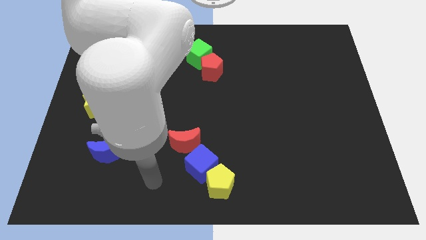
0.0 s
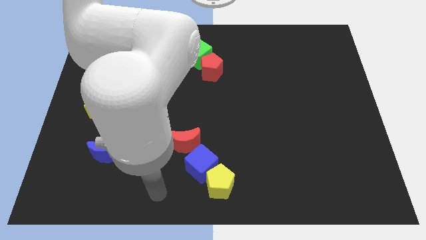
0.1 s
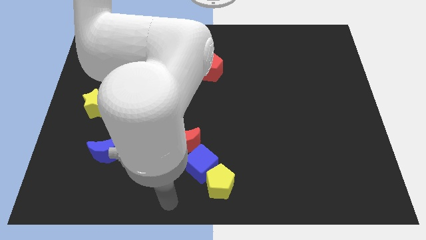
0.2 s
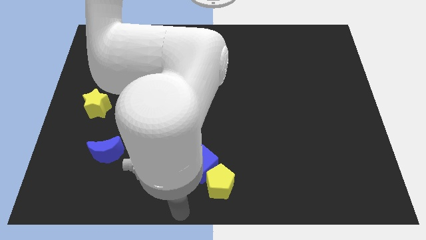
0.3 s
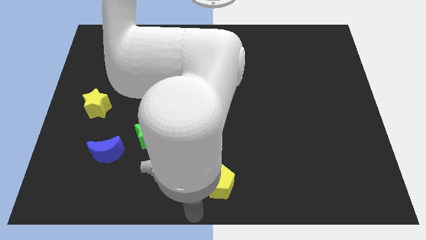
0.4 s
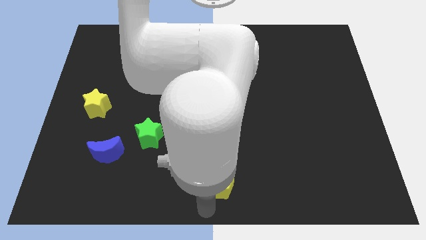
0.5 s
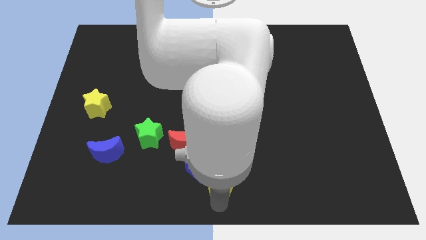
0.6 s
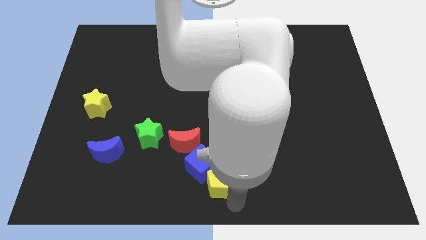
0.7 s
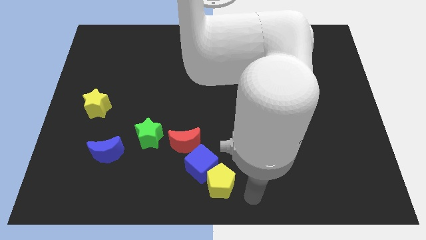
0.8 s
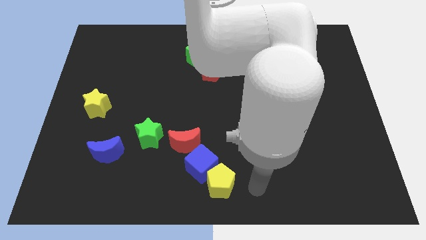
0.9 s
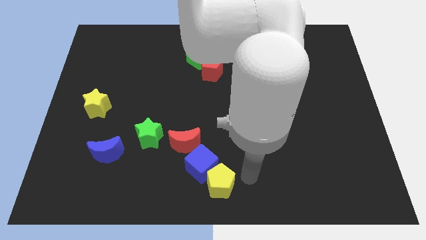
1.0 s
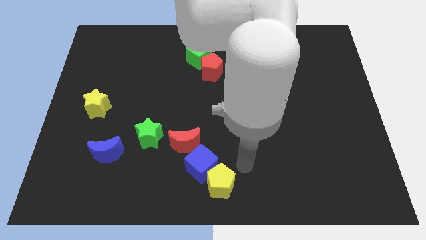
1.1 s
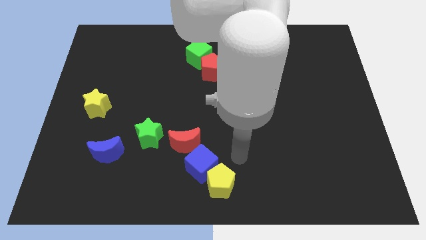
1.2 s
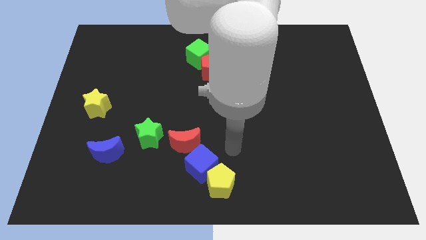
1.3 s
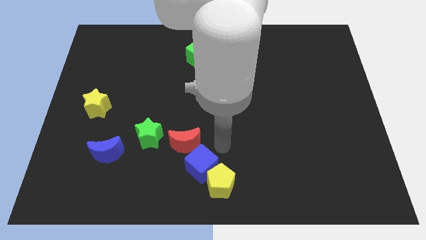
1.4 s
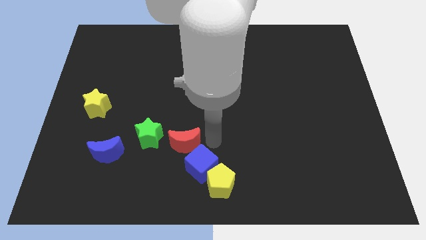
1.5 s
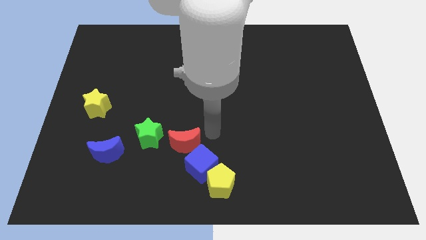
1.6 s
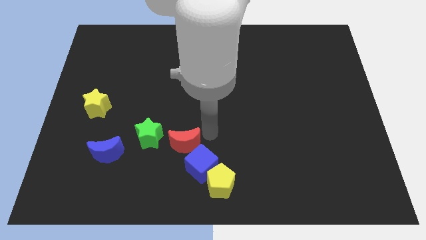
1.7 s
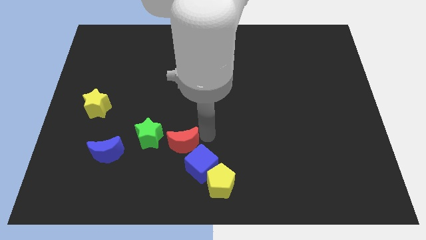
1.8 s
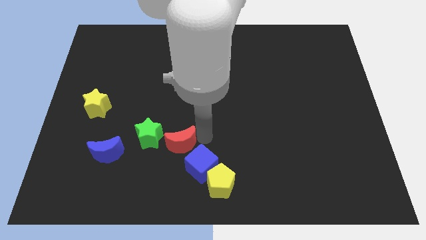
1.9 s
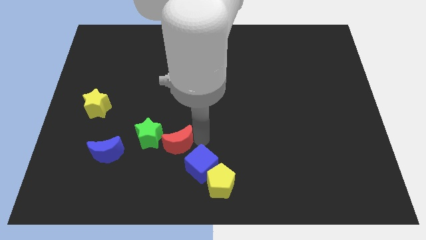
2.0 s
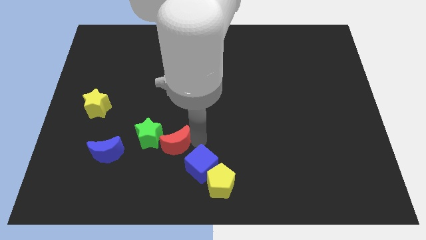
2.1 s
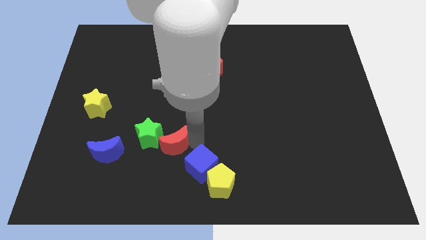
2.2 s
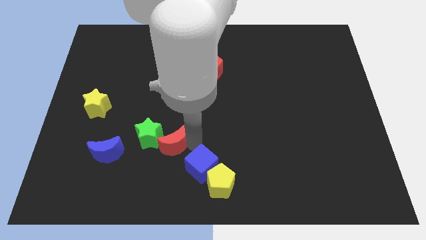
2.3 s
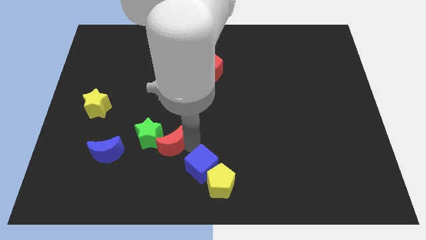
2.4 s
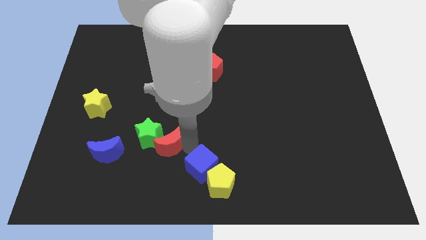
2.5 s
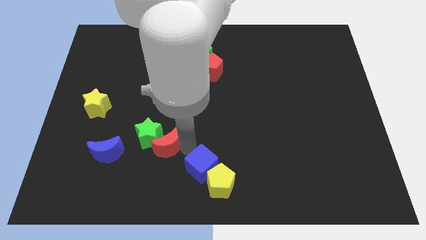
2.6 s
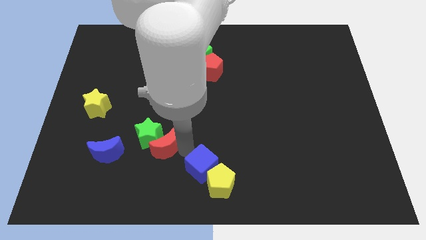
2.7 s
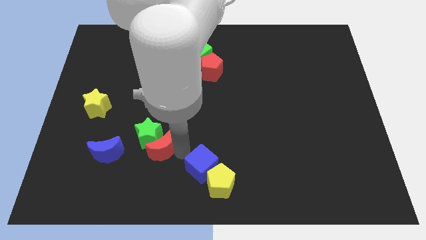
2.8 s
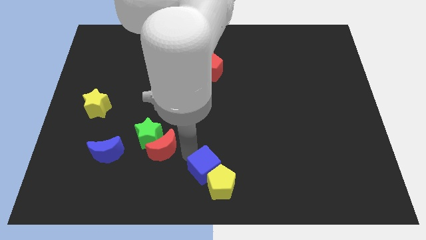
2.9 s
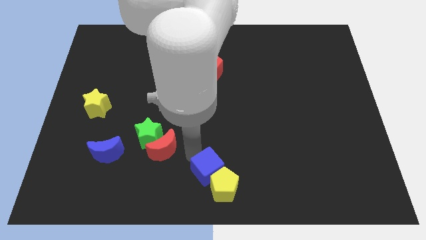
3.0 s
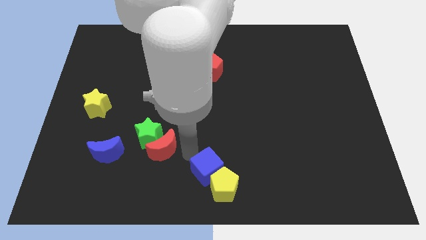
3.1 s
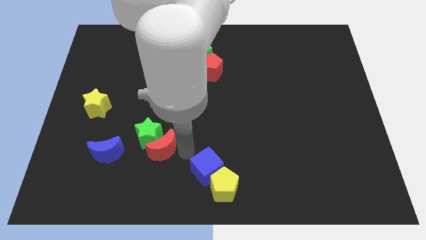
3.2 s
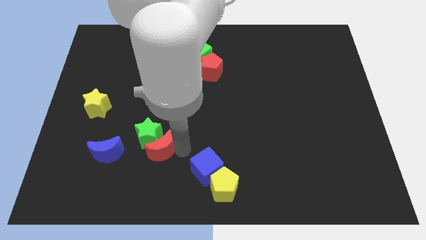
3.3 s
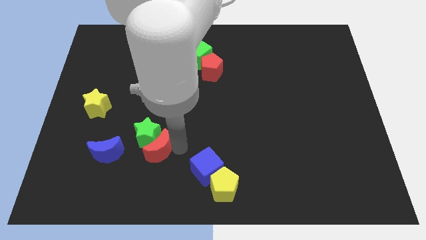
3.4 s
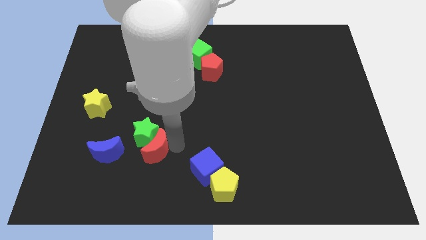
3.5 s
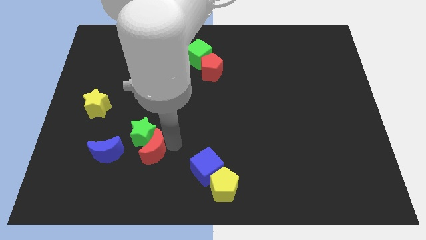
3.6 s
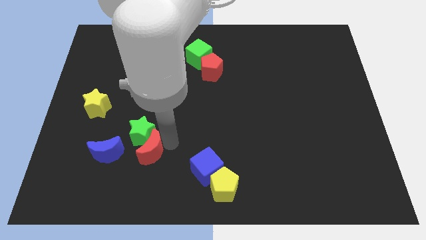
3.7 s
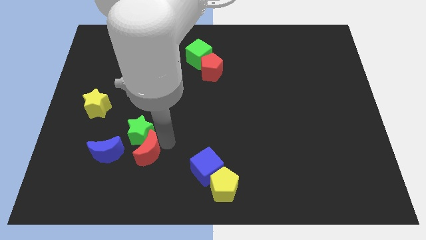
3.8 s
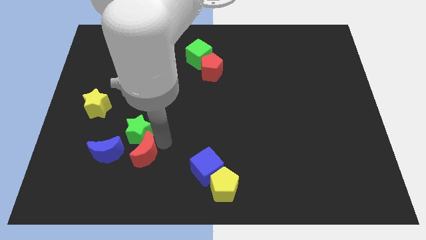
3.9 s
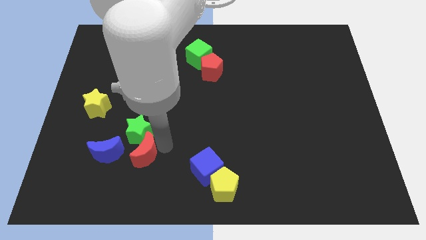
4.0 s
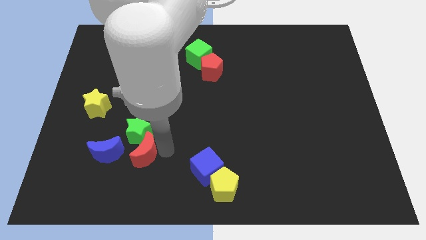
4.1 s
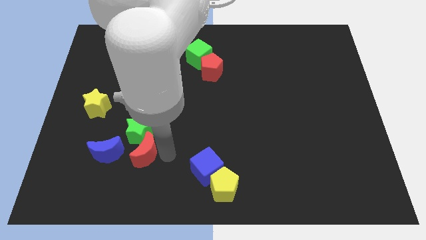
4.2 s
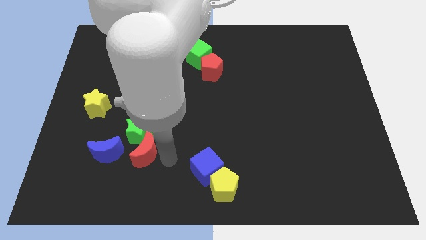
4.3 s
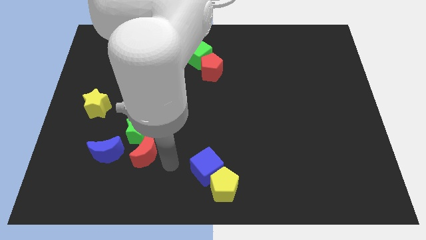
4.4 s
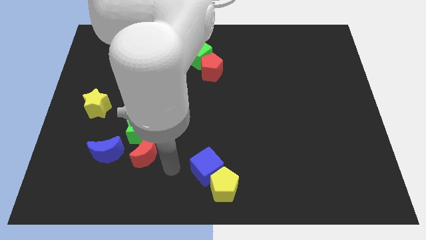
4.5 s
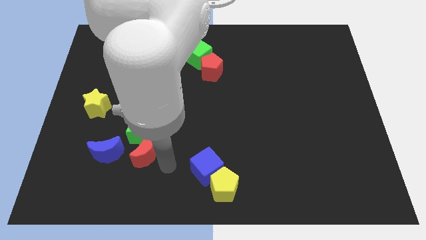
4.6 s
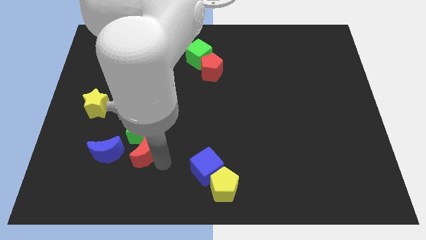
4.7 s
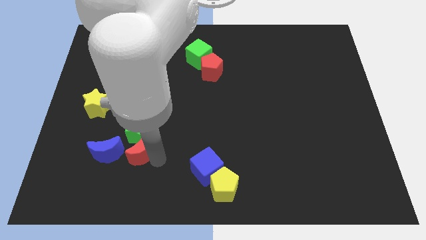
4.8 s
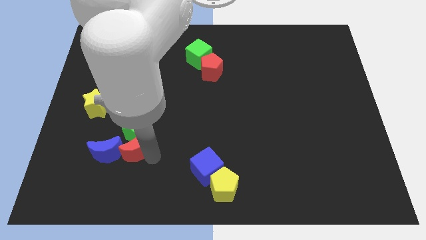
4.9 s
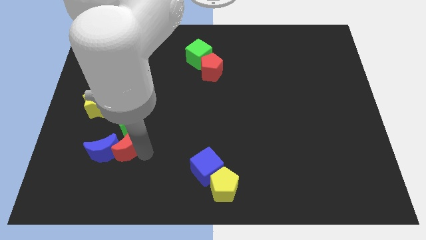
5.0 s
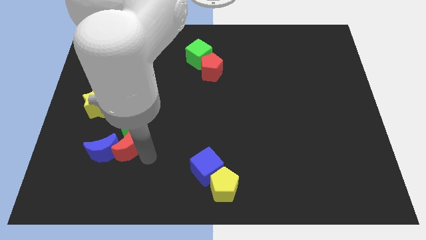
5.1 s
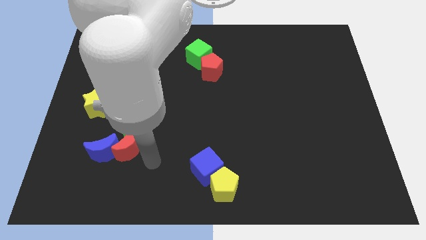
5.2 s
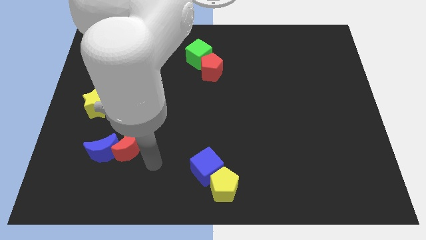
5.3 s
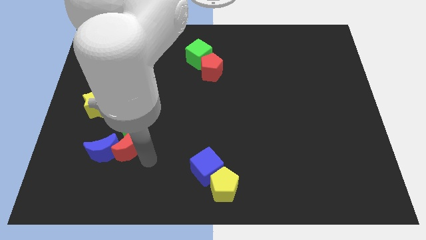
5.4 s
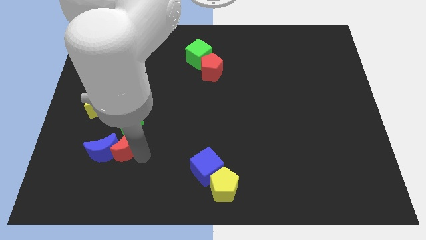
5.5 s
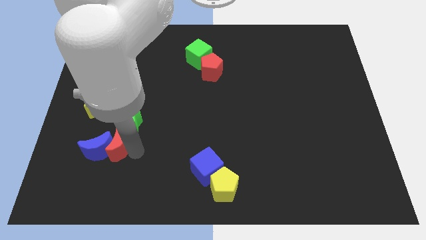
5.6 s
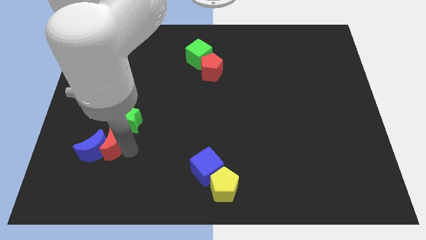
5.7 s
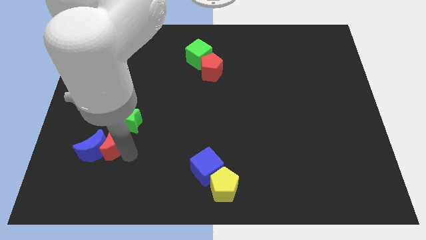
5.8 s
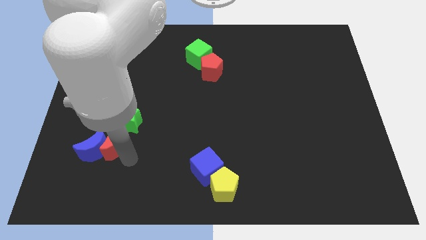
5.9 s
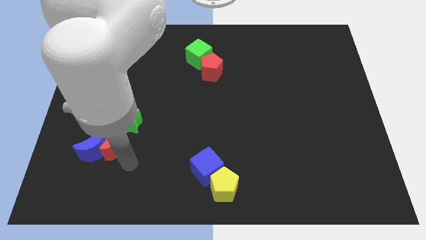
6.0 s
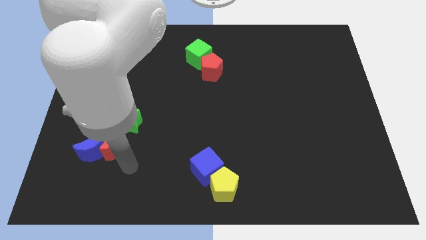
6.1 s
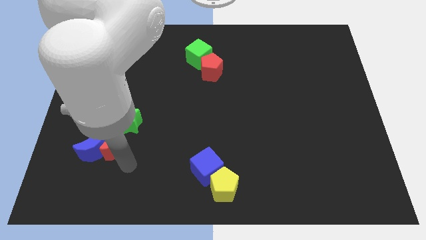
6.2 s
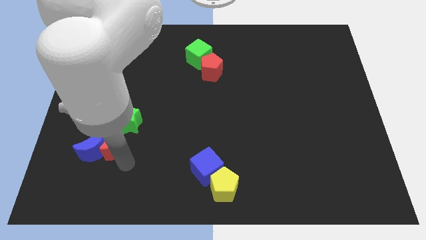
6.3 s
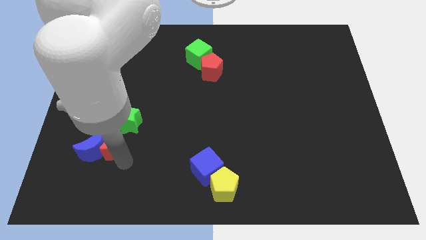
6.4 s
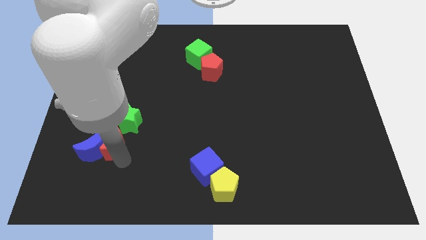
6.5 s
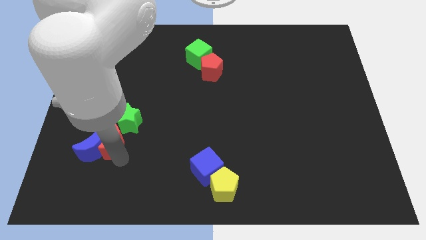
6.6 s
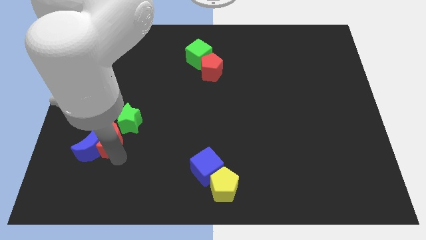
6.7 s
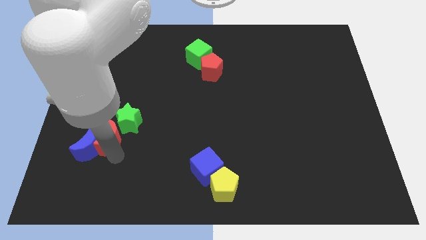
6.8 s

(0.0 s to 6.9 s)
push the red moon to the bottom of the yellow star

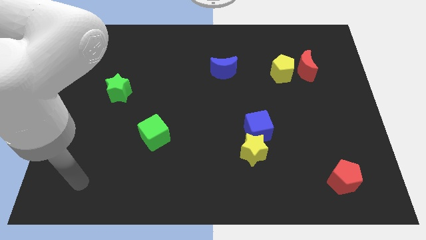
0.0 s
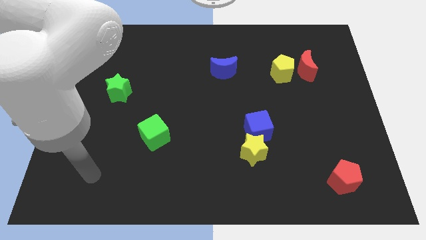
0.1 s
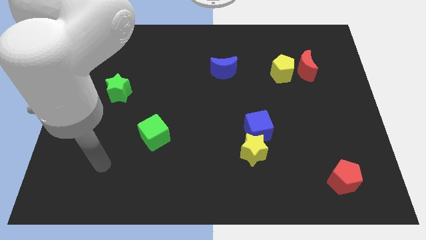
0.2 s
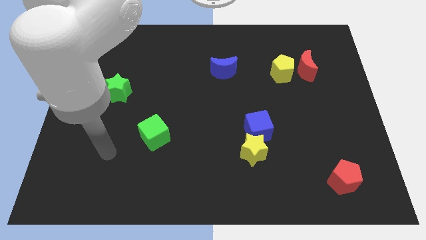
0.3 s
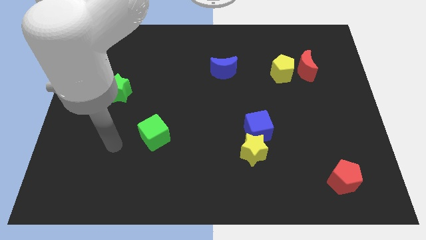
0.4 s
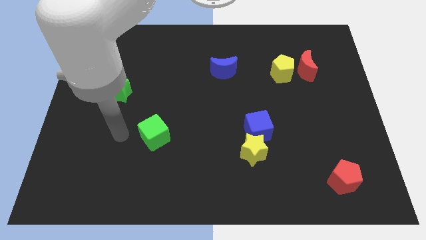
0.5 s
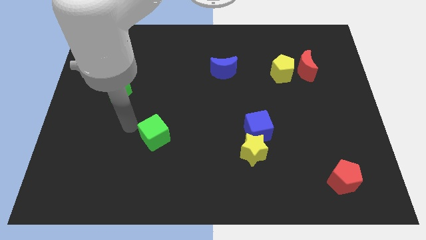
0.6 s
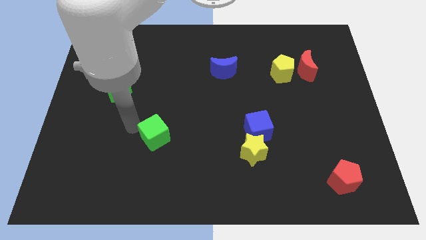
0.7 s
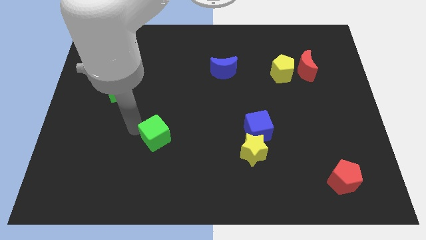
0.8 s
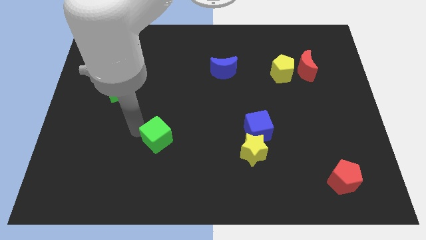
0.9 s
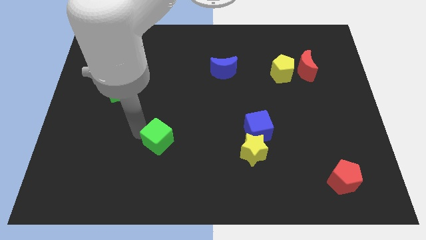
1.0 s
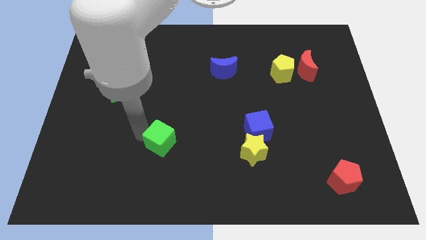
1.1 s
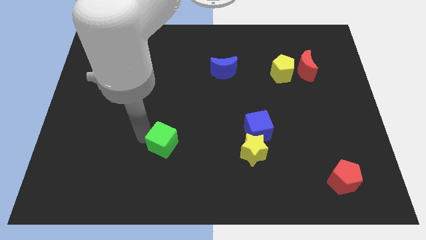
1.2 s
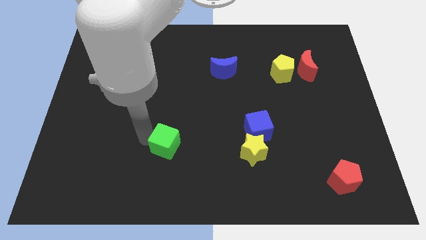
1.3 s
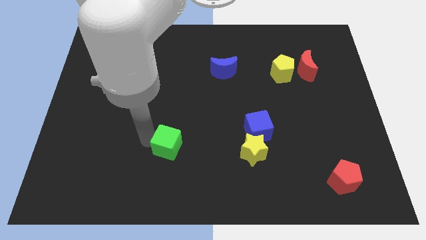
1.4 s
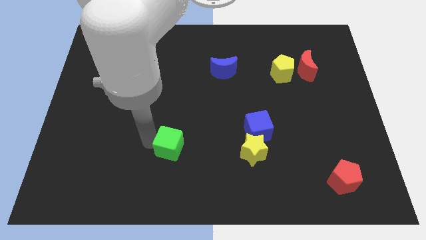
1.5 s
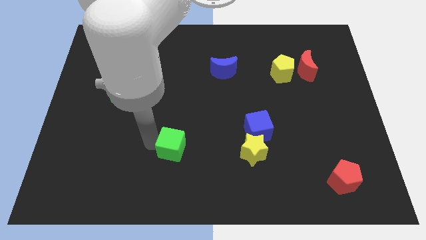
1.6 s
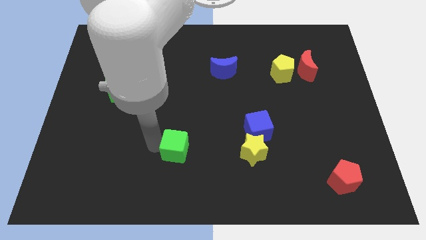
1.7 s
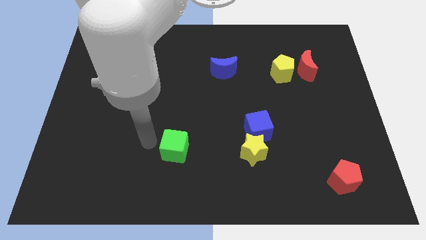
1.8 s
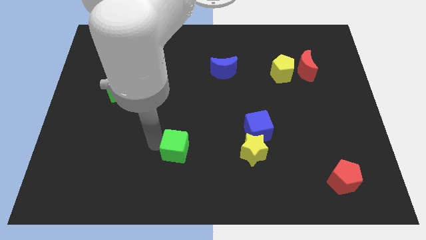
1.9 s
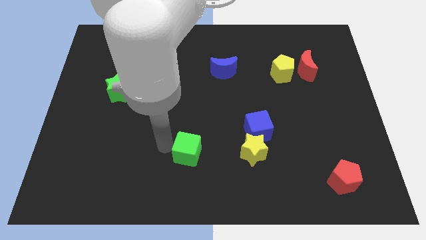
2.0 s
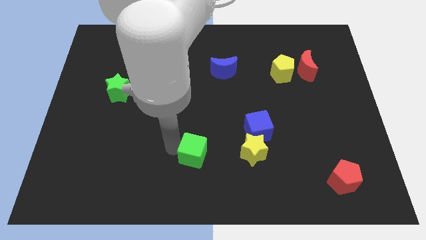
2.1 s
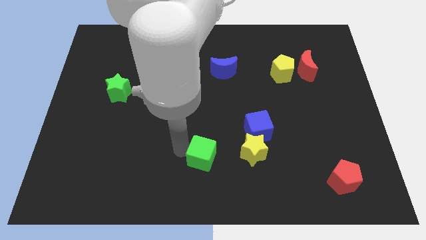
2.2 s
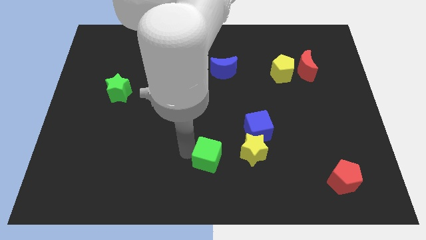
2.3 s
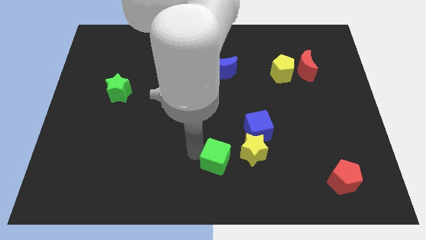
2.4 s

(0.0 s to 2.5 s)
push the green cube to the bottom left side of the yellow star
